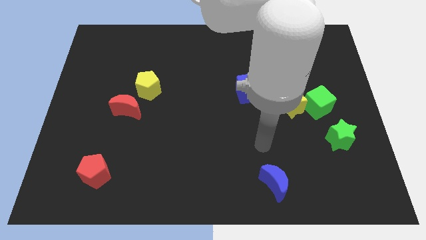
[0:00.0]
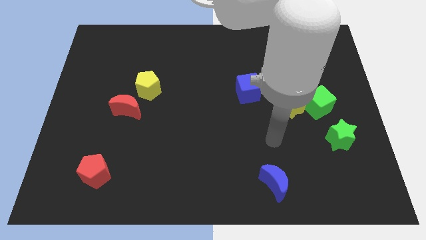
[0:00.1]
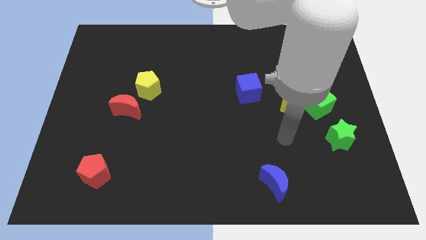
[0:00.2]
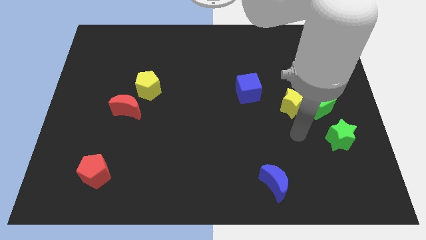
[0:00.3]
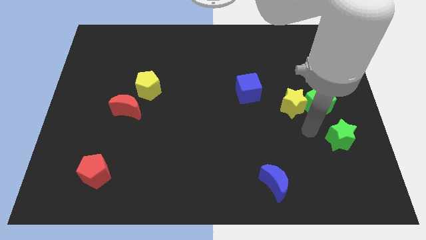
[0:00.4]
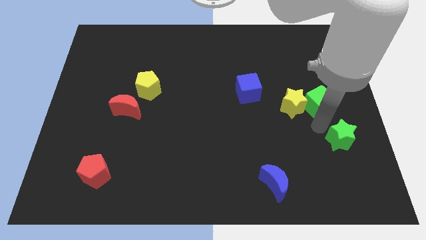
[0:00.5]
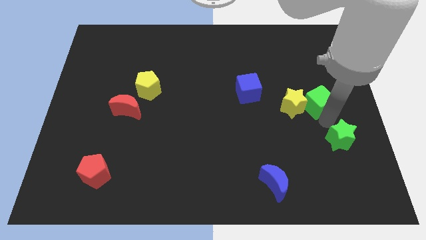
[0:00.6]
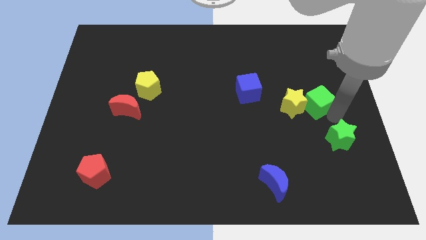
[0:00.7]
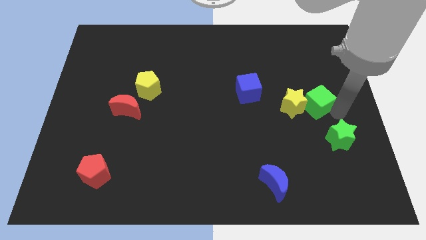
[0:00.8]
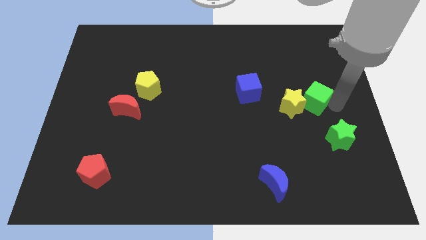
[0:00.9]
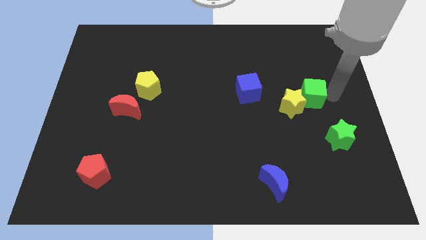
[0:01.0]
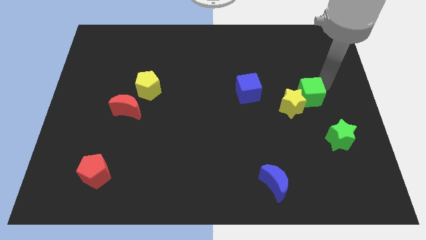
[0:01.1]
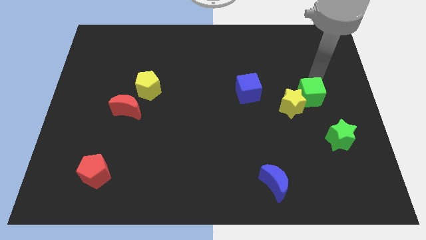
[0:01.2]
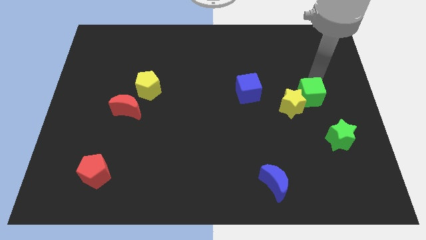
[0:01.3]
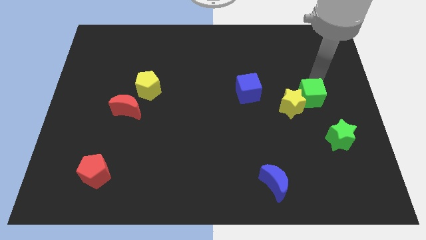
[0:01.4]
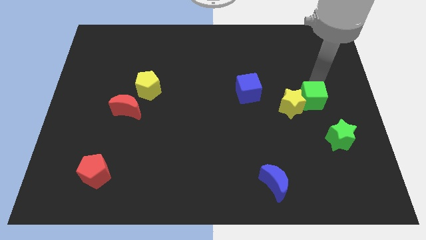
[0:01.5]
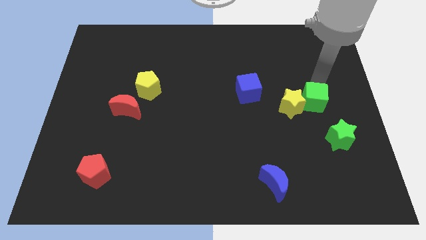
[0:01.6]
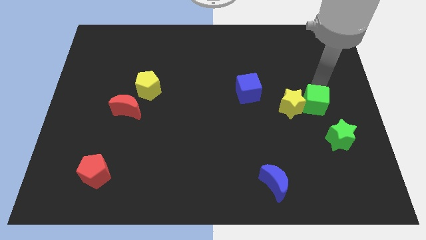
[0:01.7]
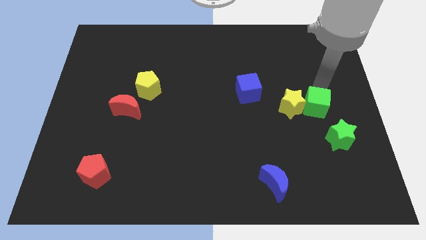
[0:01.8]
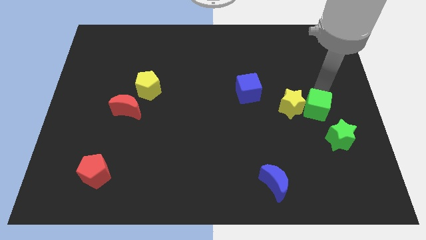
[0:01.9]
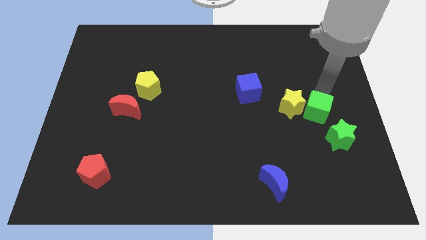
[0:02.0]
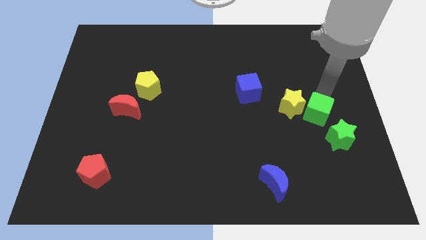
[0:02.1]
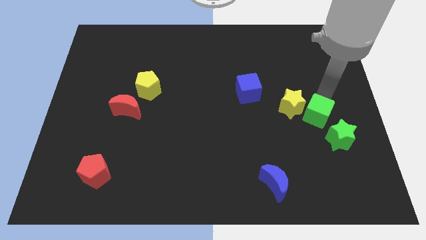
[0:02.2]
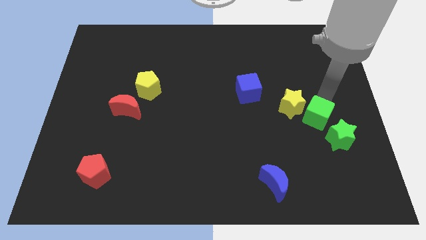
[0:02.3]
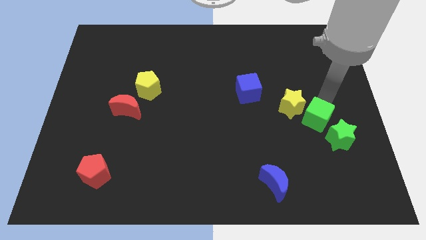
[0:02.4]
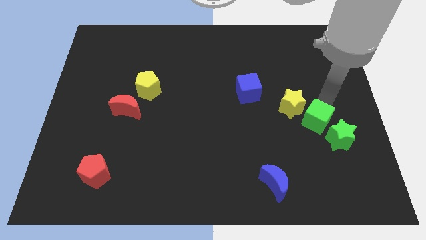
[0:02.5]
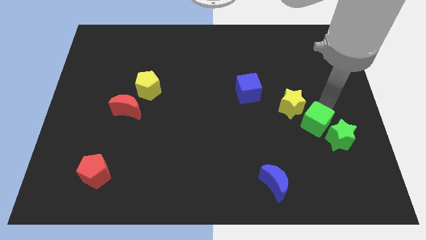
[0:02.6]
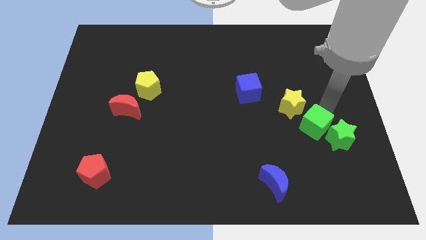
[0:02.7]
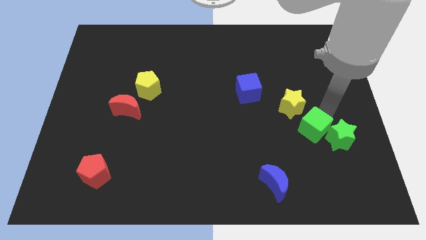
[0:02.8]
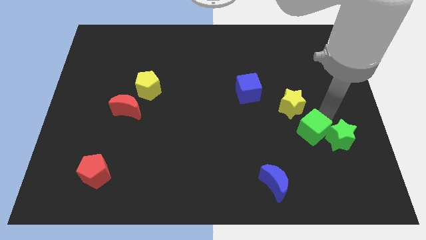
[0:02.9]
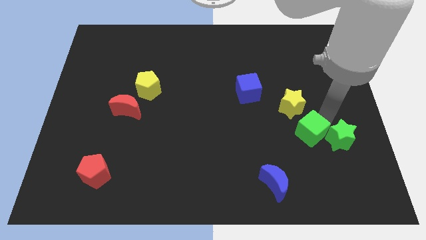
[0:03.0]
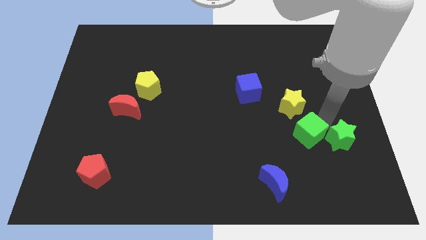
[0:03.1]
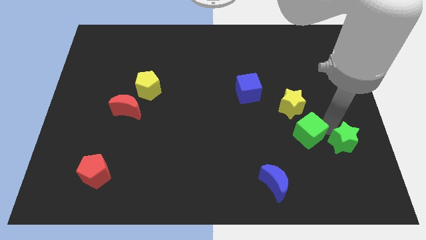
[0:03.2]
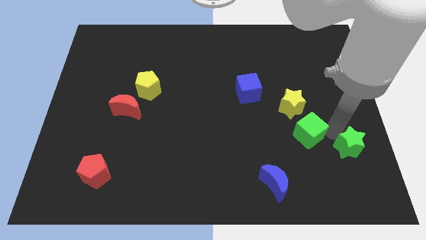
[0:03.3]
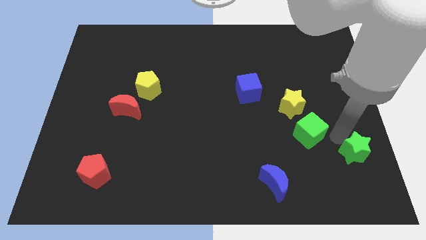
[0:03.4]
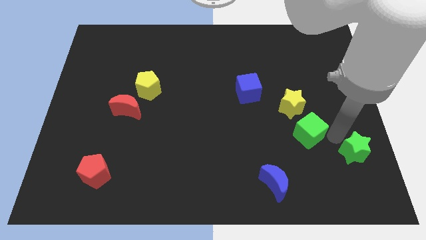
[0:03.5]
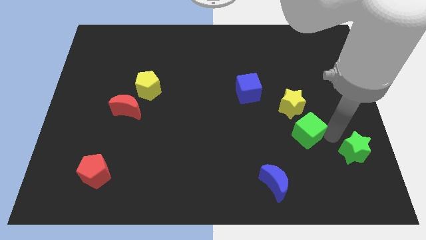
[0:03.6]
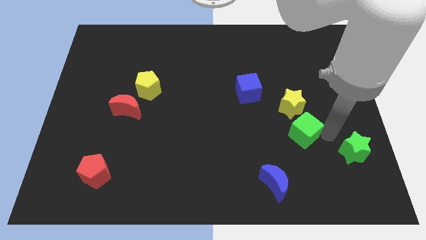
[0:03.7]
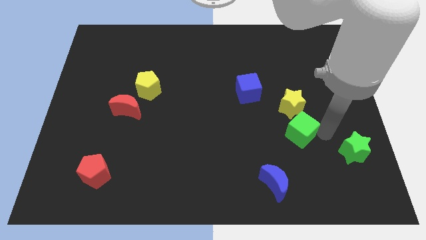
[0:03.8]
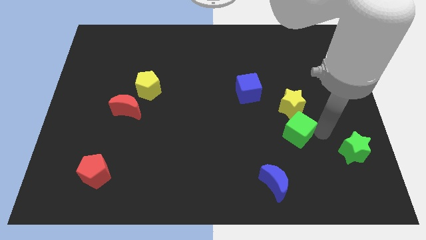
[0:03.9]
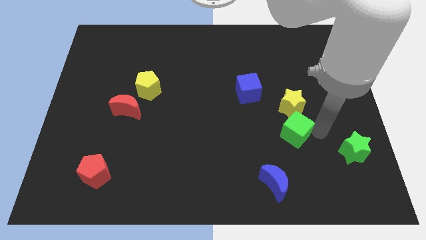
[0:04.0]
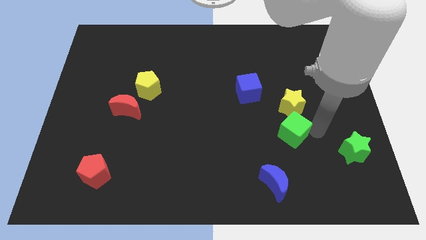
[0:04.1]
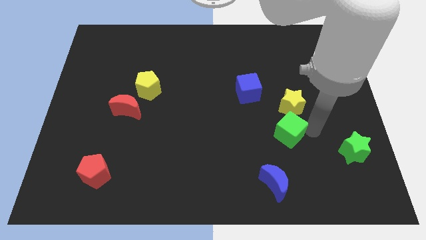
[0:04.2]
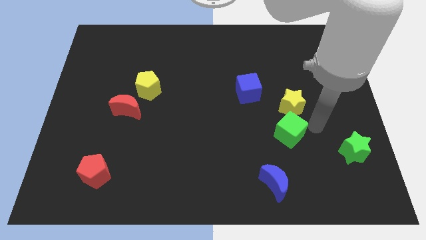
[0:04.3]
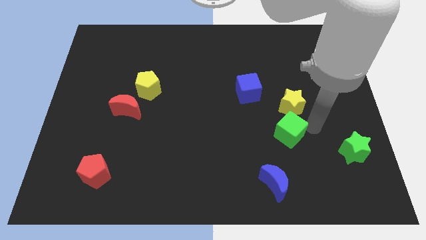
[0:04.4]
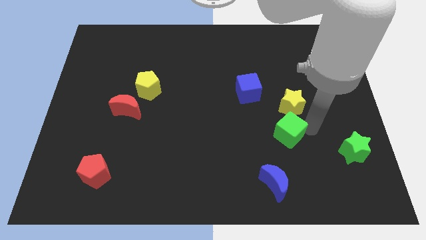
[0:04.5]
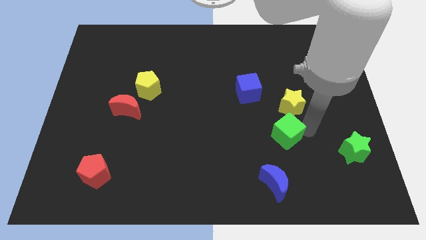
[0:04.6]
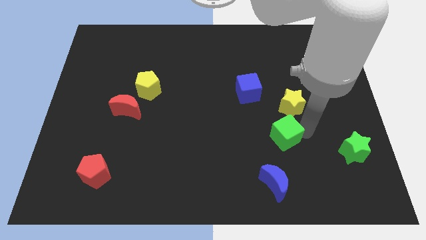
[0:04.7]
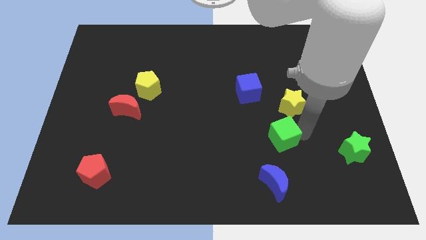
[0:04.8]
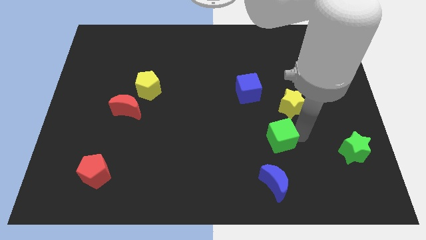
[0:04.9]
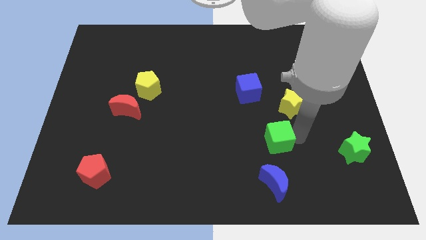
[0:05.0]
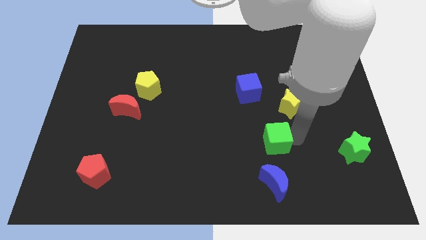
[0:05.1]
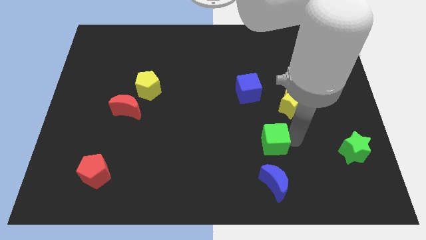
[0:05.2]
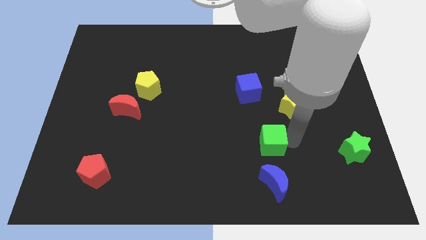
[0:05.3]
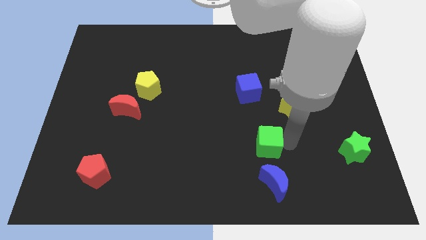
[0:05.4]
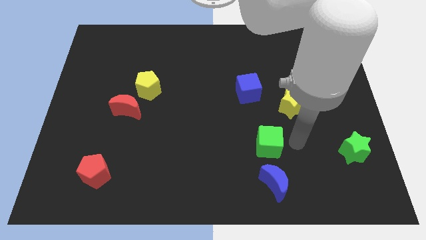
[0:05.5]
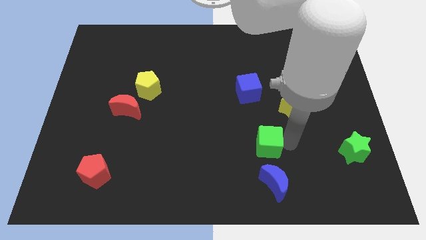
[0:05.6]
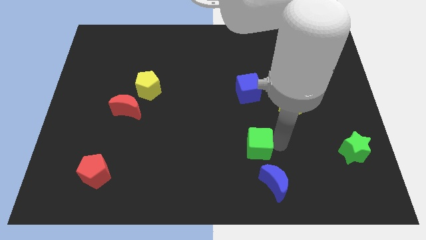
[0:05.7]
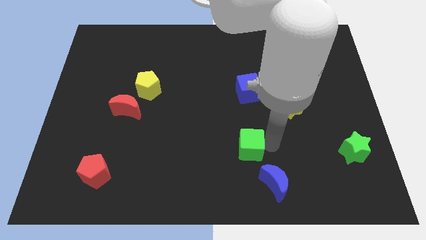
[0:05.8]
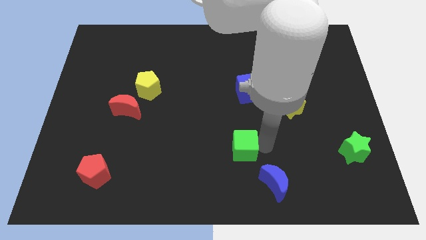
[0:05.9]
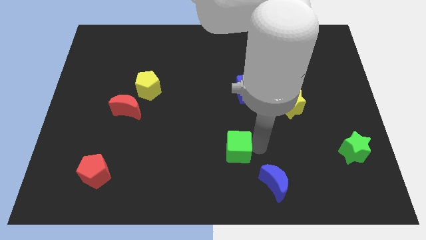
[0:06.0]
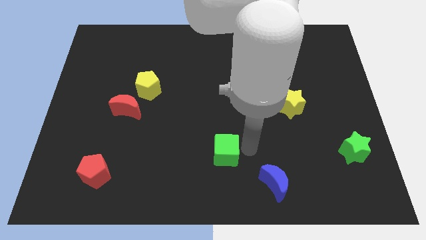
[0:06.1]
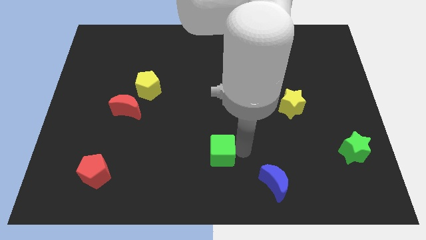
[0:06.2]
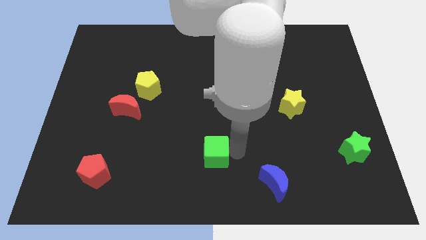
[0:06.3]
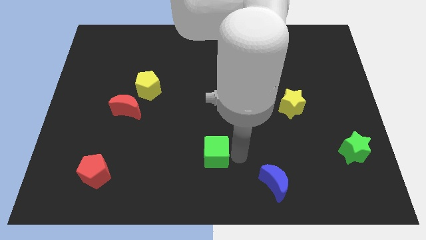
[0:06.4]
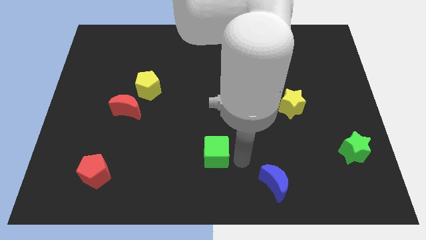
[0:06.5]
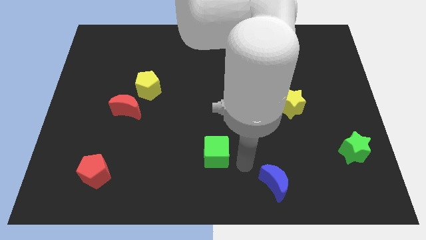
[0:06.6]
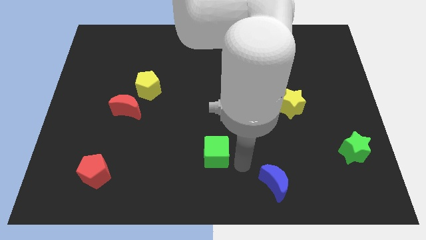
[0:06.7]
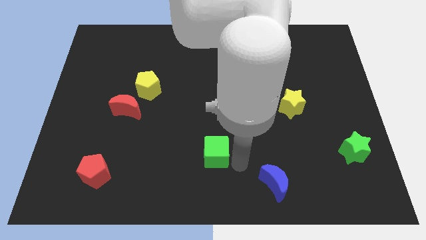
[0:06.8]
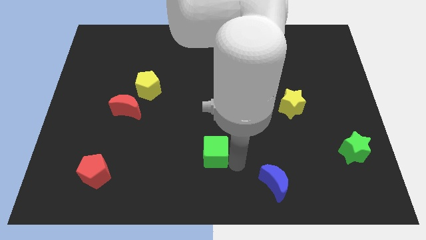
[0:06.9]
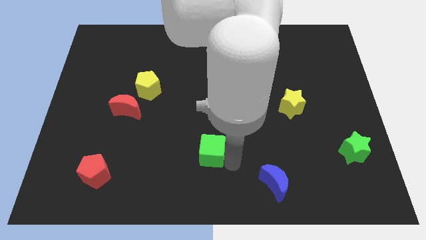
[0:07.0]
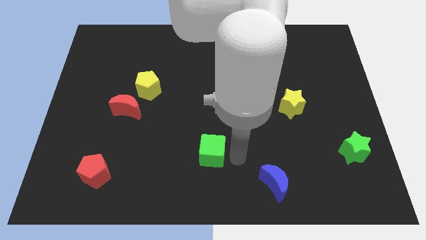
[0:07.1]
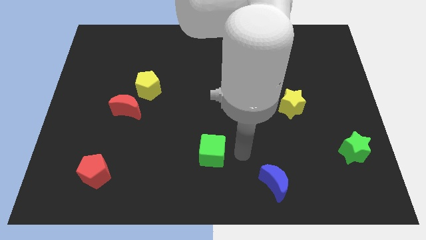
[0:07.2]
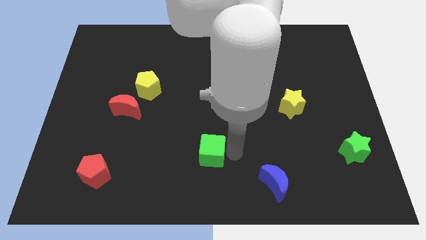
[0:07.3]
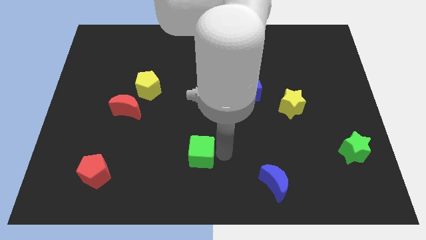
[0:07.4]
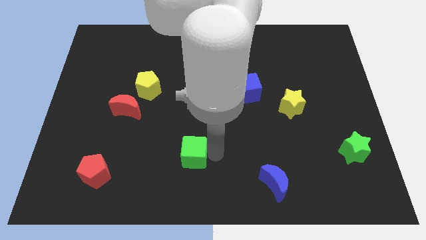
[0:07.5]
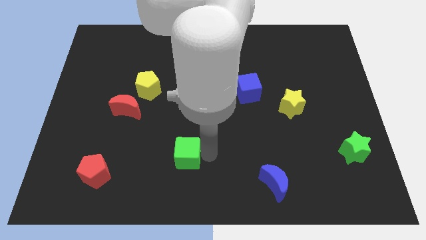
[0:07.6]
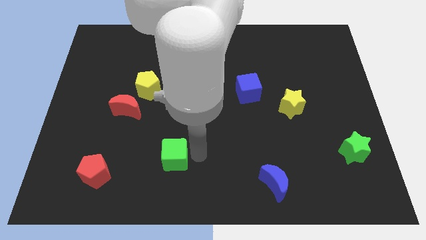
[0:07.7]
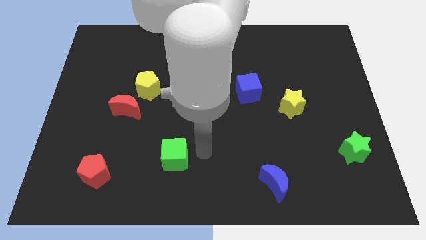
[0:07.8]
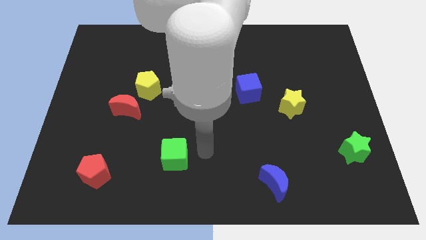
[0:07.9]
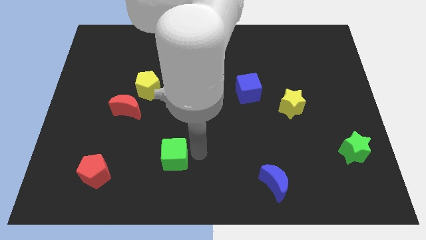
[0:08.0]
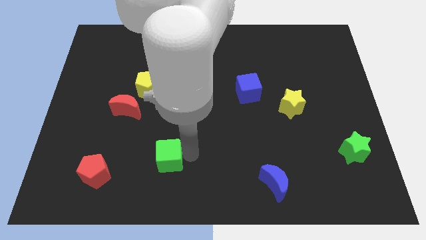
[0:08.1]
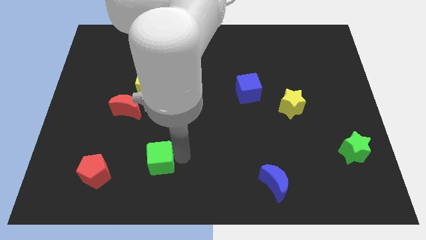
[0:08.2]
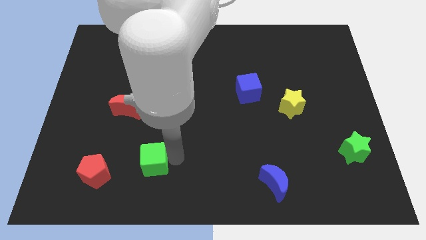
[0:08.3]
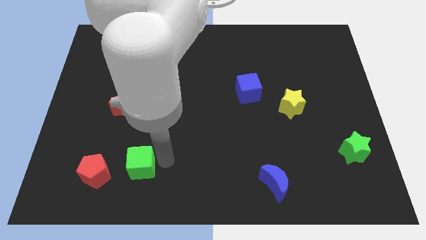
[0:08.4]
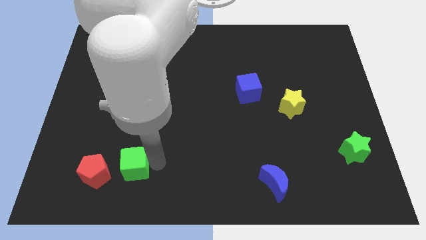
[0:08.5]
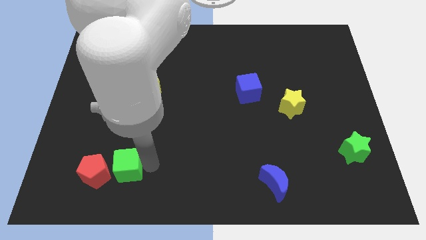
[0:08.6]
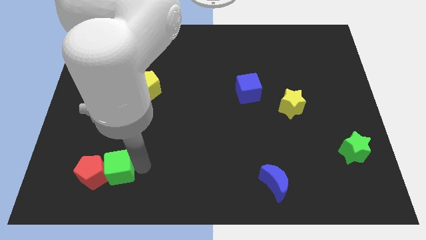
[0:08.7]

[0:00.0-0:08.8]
push the green cube close to the red pentagon
